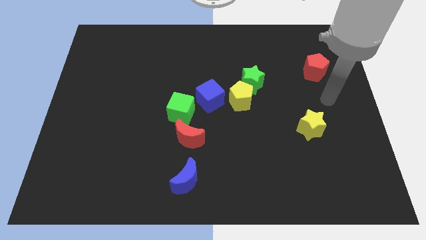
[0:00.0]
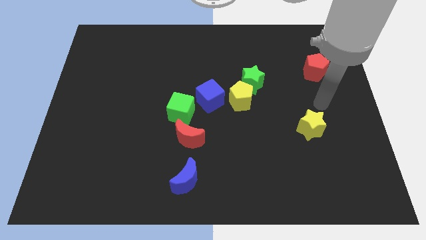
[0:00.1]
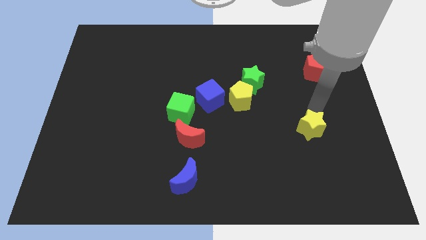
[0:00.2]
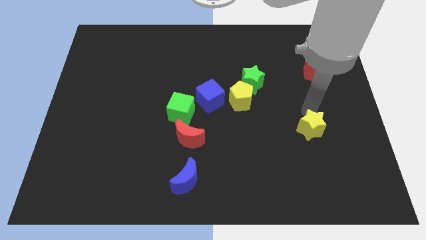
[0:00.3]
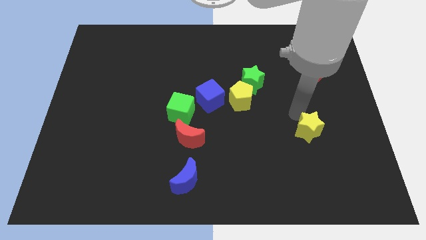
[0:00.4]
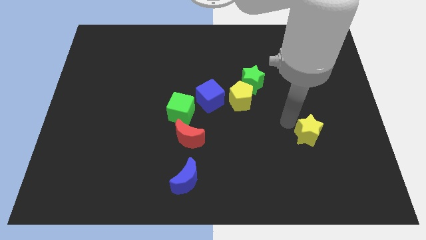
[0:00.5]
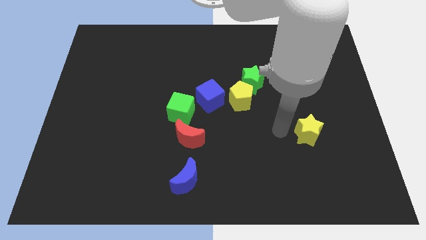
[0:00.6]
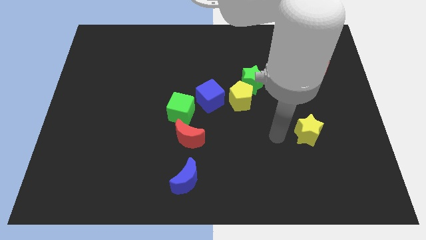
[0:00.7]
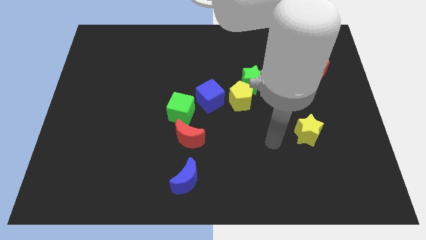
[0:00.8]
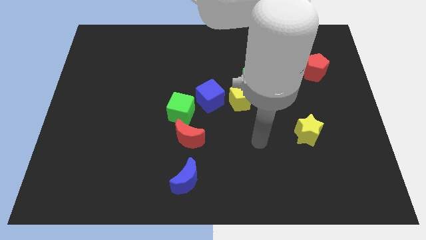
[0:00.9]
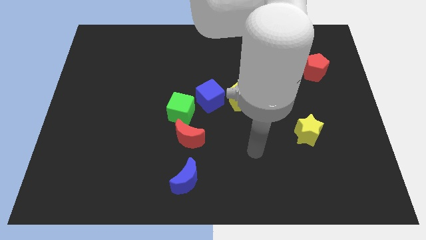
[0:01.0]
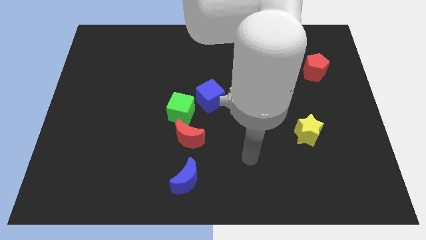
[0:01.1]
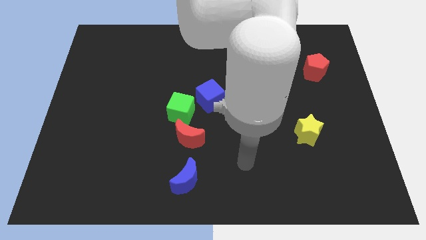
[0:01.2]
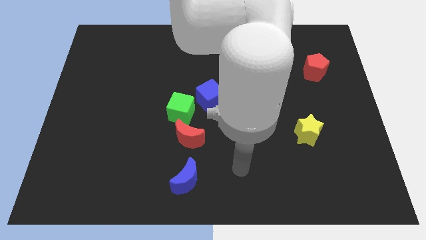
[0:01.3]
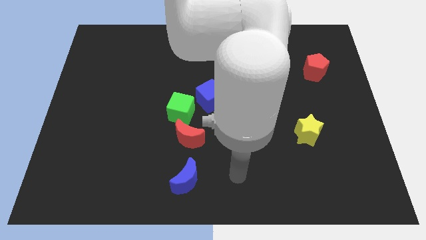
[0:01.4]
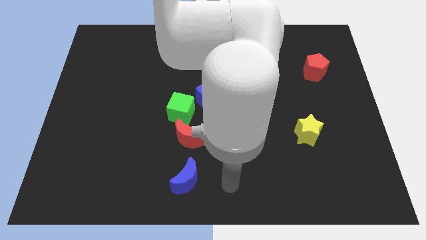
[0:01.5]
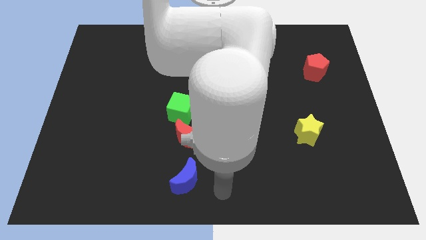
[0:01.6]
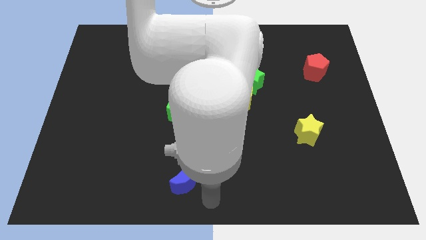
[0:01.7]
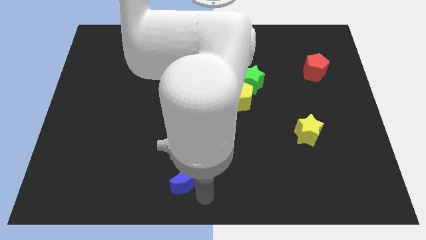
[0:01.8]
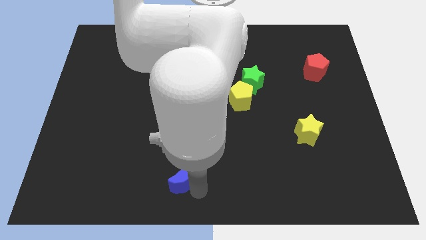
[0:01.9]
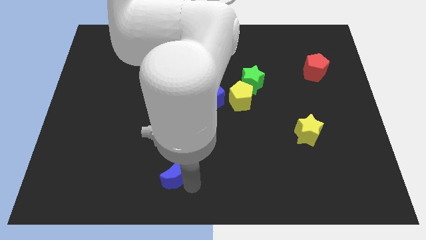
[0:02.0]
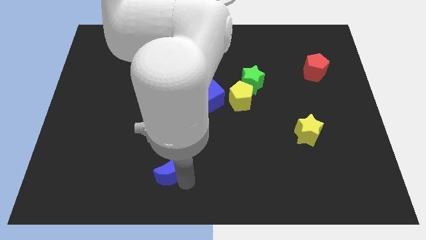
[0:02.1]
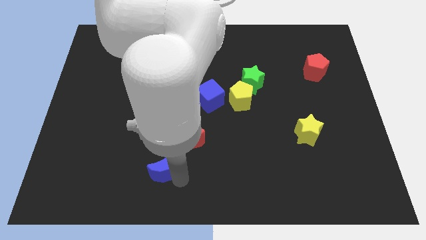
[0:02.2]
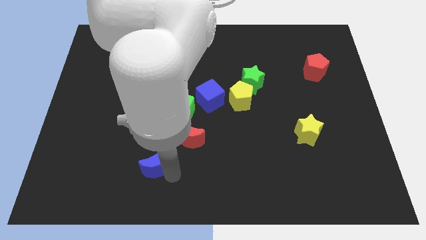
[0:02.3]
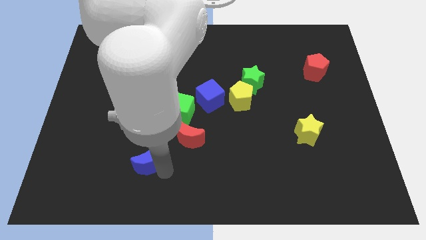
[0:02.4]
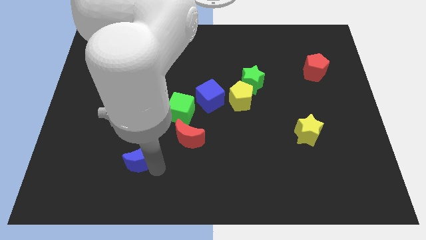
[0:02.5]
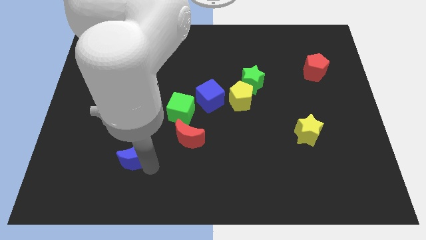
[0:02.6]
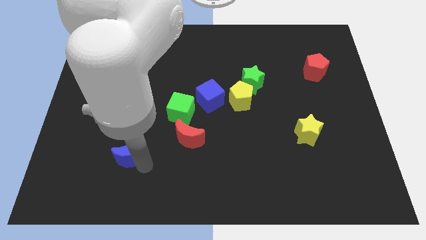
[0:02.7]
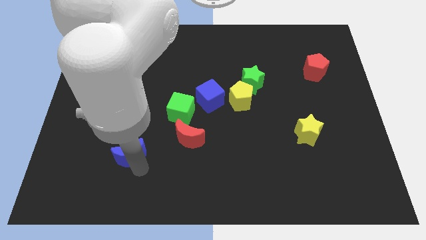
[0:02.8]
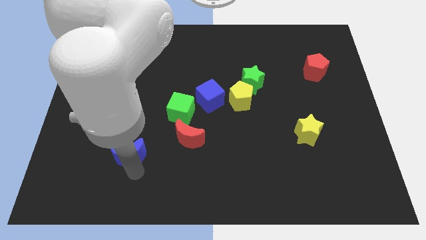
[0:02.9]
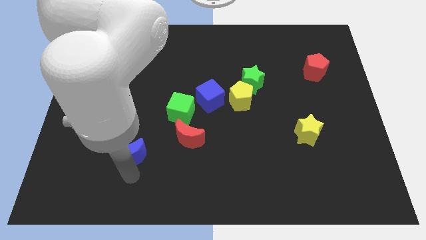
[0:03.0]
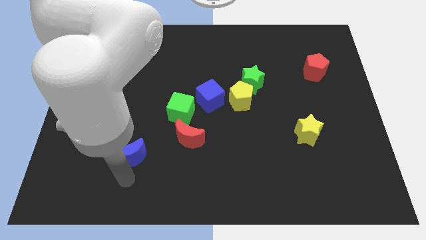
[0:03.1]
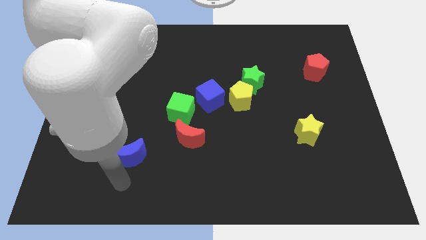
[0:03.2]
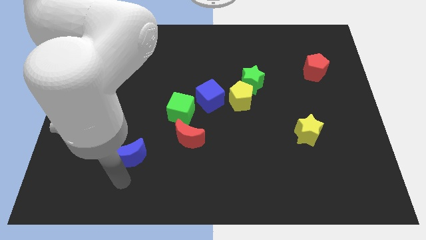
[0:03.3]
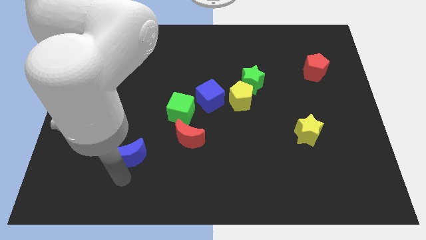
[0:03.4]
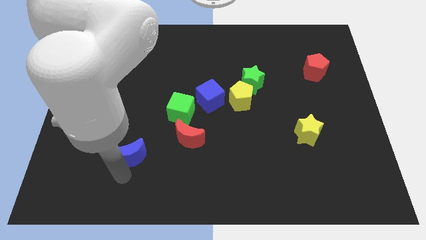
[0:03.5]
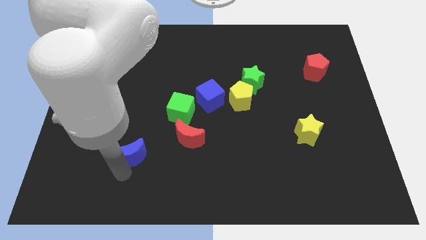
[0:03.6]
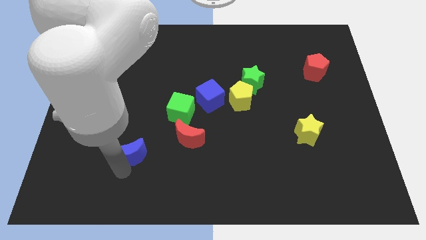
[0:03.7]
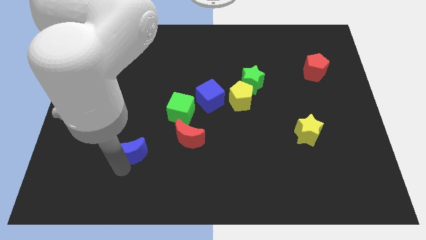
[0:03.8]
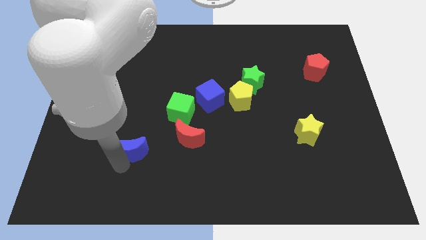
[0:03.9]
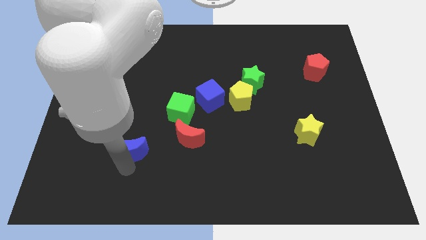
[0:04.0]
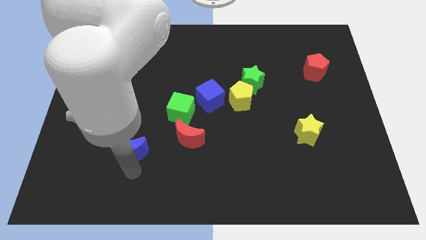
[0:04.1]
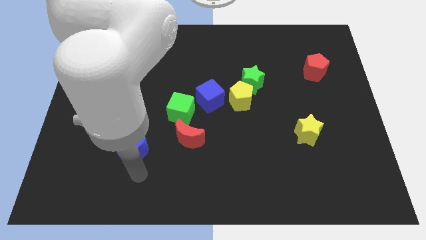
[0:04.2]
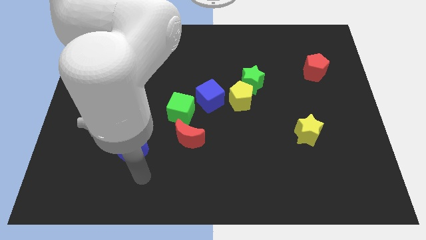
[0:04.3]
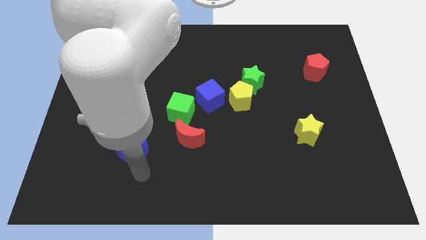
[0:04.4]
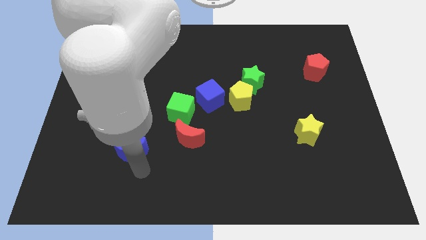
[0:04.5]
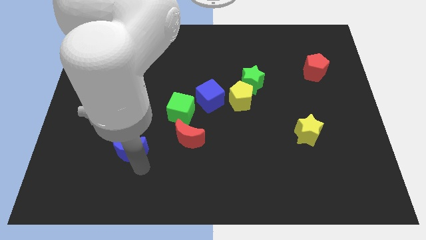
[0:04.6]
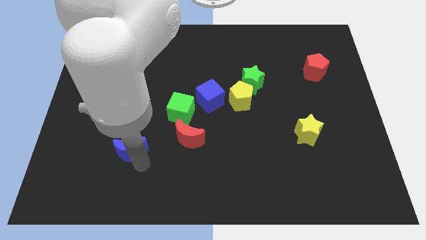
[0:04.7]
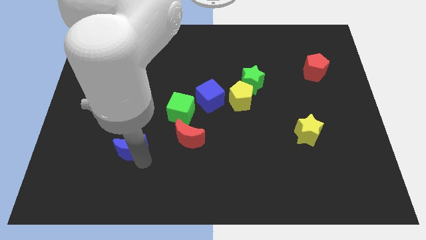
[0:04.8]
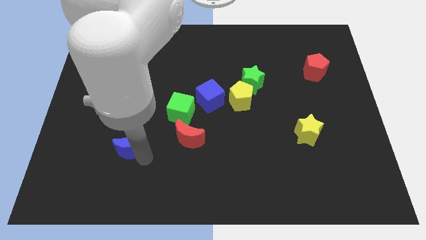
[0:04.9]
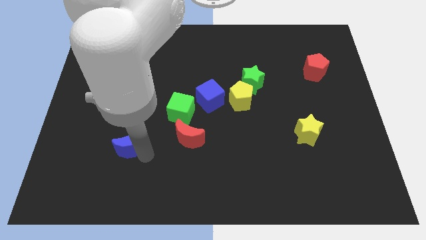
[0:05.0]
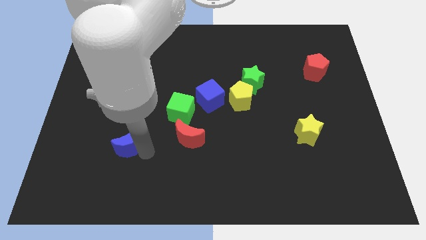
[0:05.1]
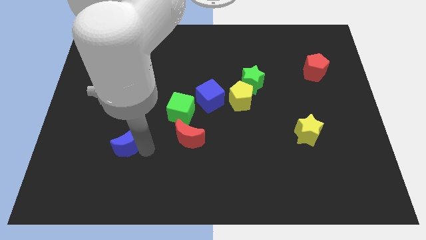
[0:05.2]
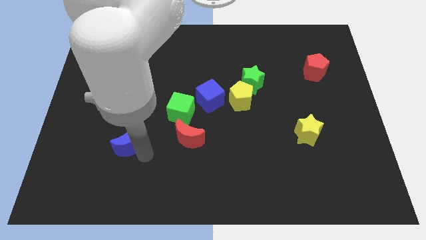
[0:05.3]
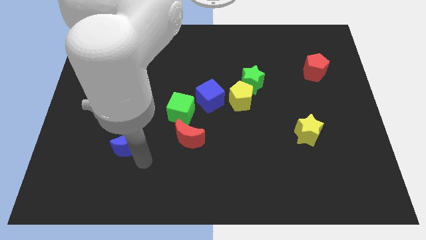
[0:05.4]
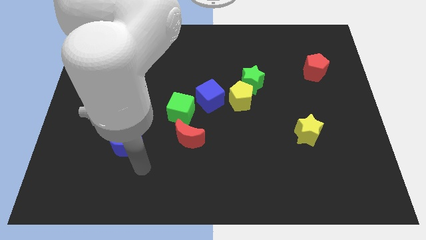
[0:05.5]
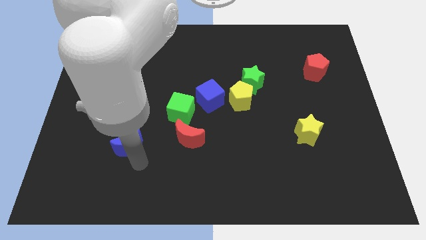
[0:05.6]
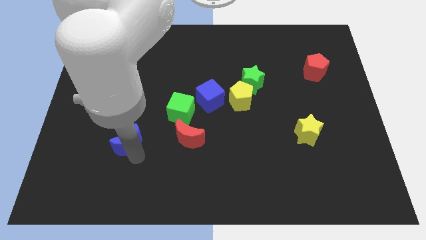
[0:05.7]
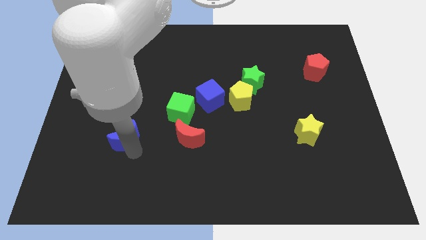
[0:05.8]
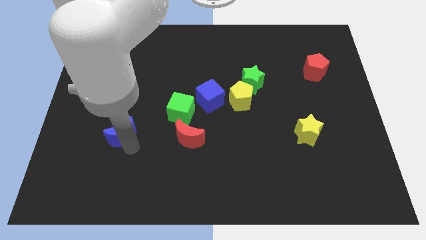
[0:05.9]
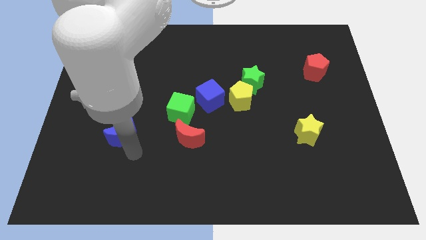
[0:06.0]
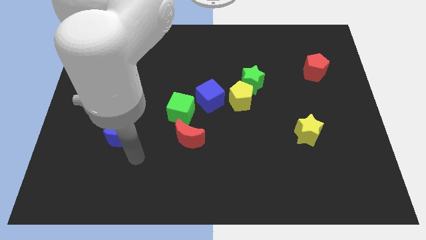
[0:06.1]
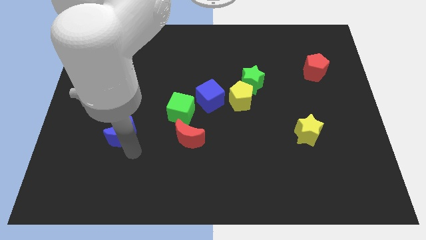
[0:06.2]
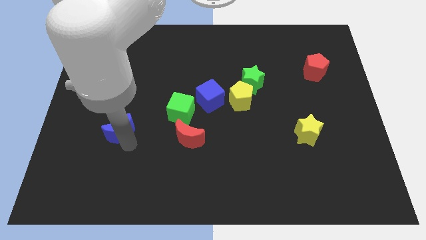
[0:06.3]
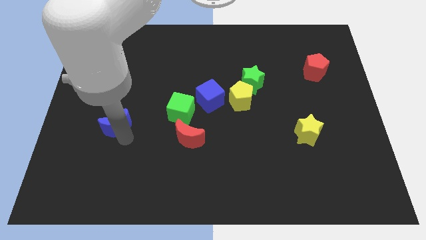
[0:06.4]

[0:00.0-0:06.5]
push the blue moon upwards and to the left diagonally

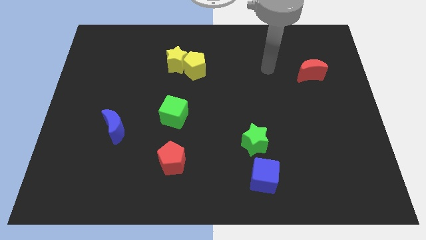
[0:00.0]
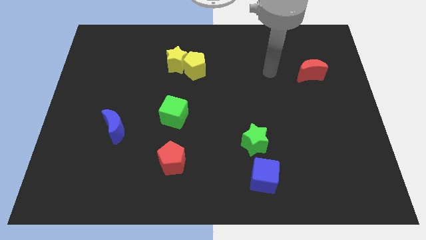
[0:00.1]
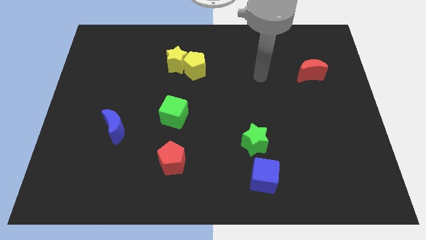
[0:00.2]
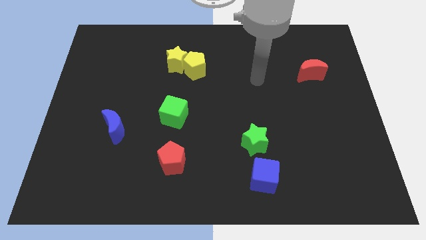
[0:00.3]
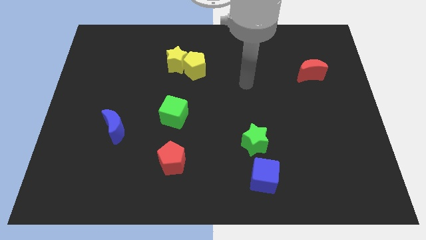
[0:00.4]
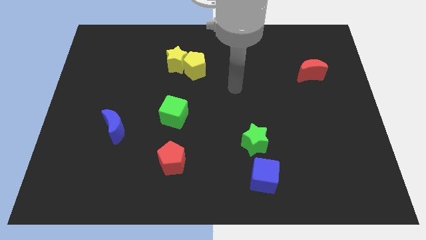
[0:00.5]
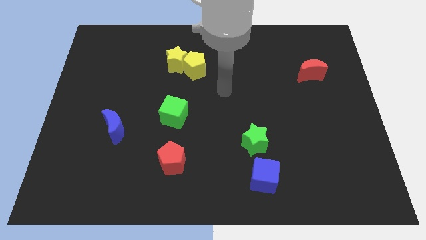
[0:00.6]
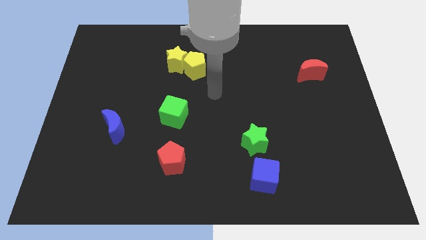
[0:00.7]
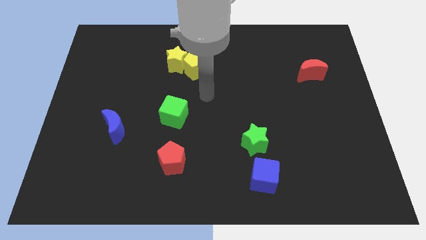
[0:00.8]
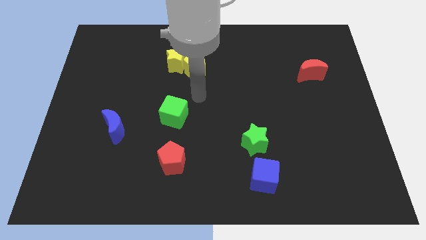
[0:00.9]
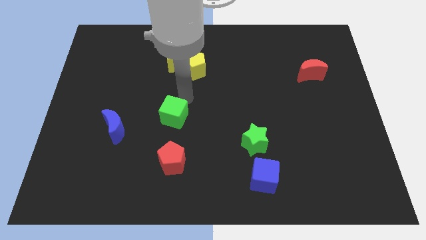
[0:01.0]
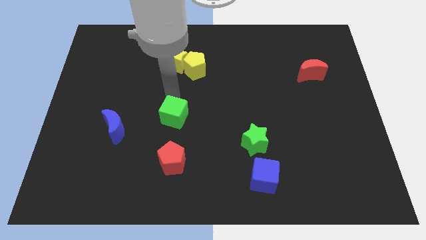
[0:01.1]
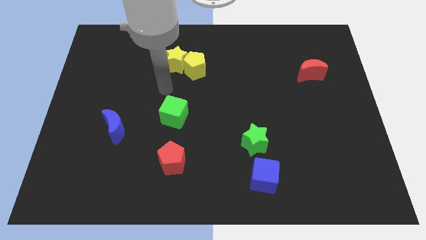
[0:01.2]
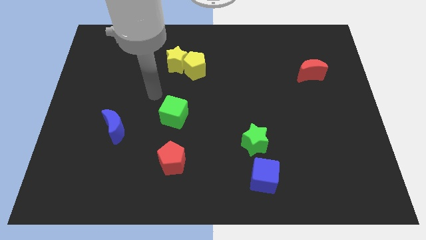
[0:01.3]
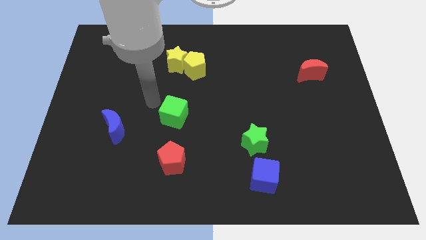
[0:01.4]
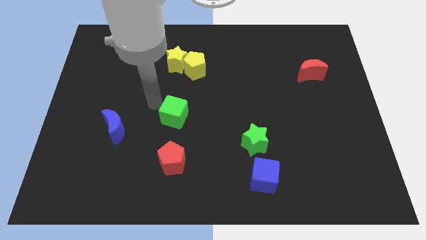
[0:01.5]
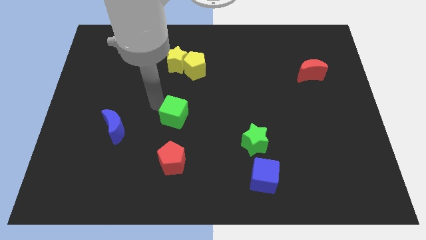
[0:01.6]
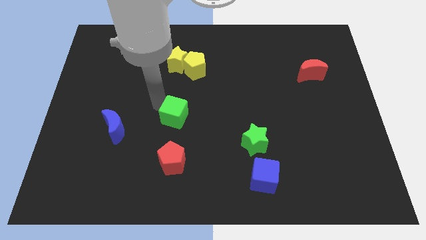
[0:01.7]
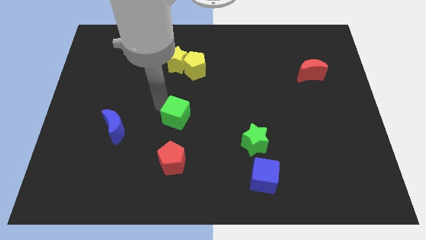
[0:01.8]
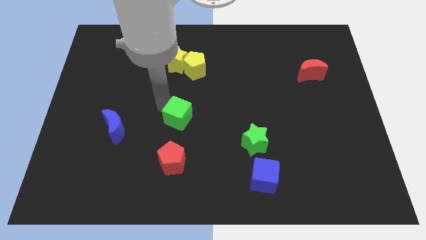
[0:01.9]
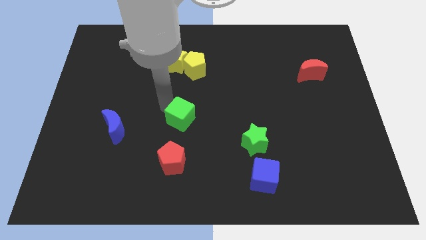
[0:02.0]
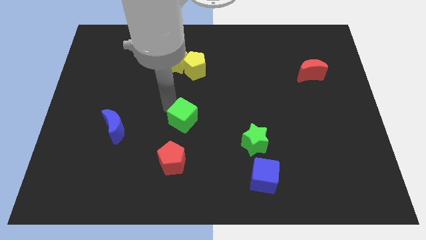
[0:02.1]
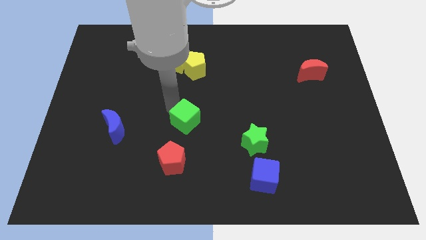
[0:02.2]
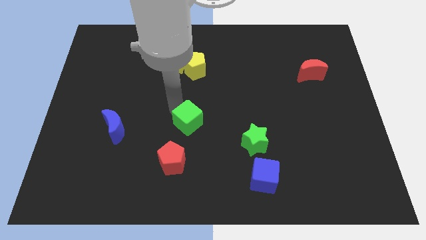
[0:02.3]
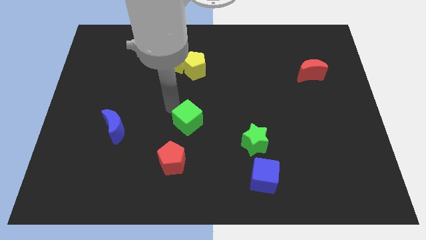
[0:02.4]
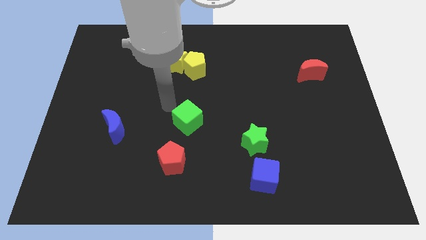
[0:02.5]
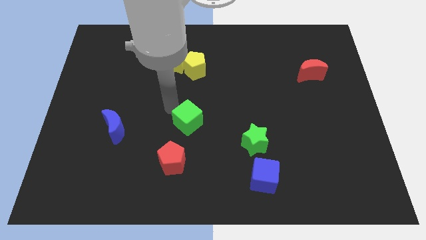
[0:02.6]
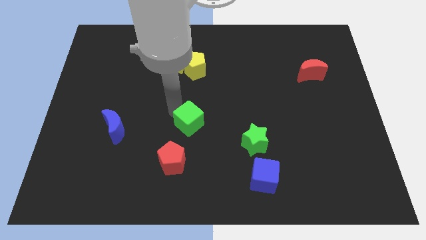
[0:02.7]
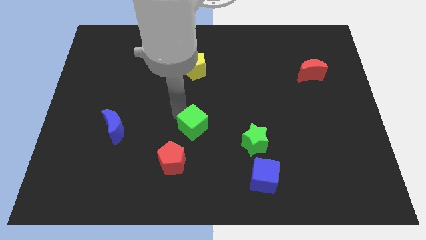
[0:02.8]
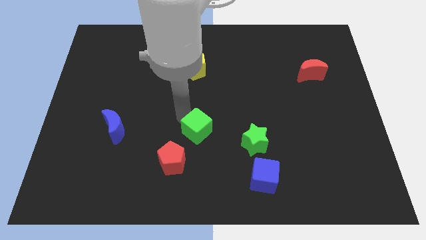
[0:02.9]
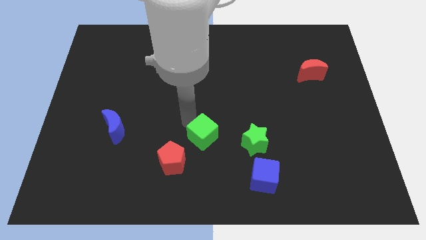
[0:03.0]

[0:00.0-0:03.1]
slide the green cube down and right diagonally slightly
